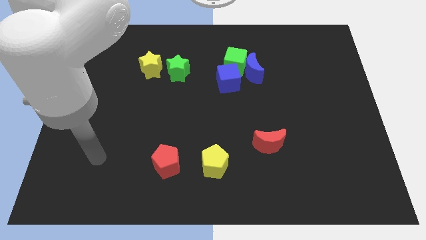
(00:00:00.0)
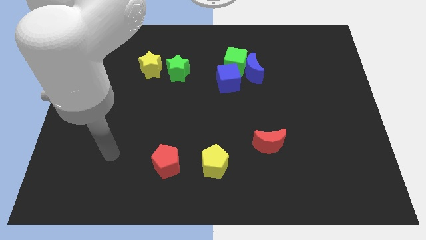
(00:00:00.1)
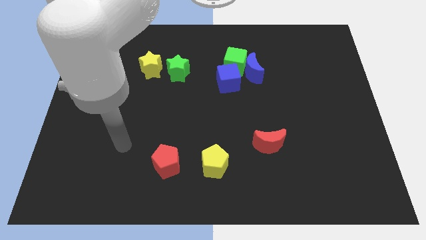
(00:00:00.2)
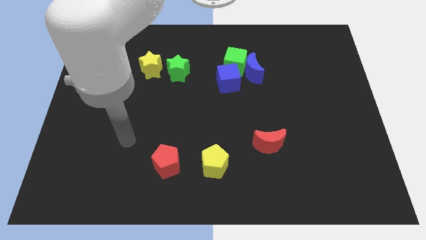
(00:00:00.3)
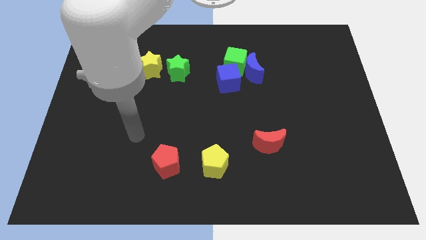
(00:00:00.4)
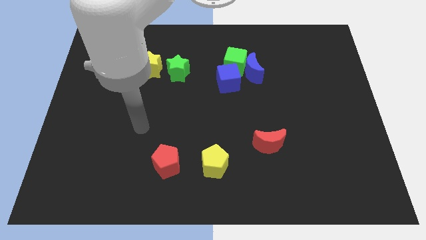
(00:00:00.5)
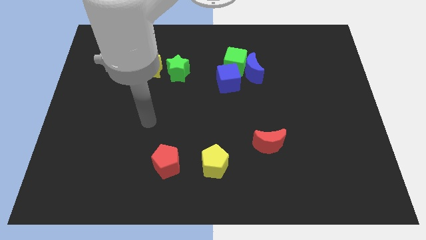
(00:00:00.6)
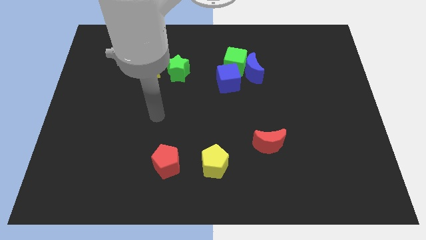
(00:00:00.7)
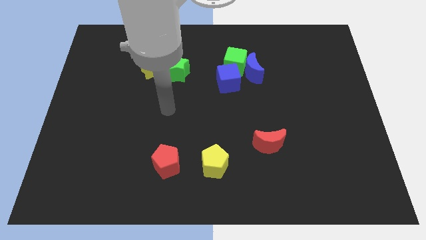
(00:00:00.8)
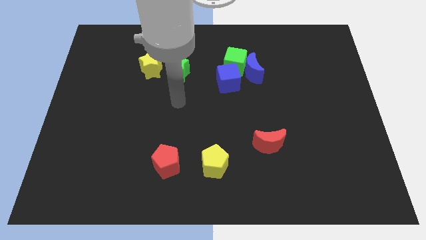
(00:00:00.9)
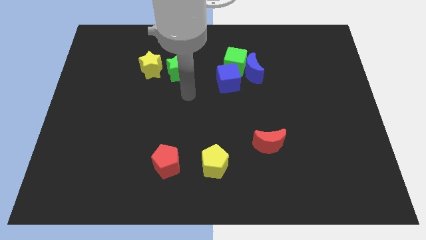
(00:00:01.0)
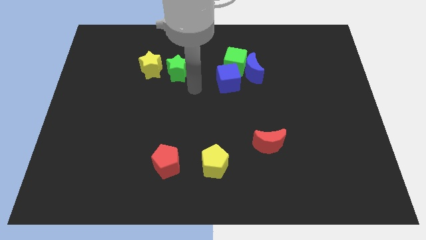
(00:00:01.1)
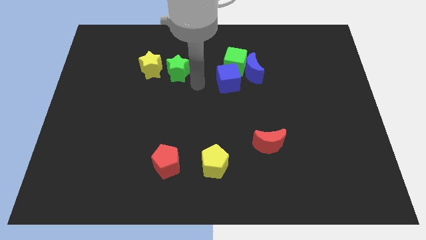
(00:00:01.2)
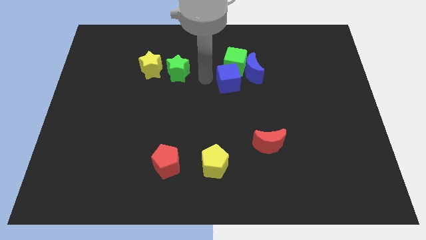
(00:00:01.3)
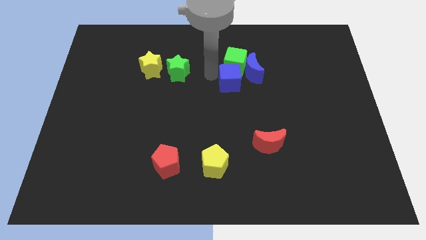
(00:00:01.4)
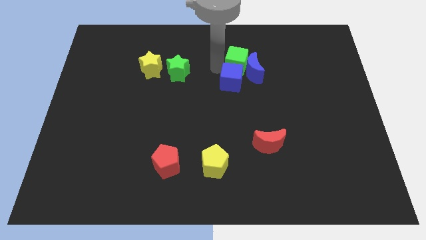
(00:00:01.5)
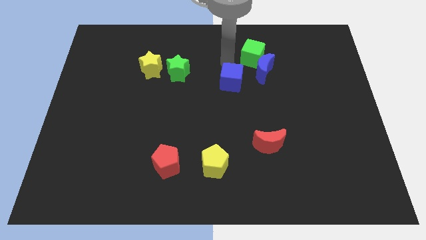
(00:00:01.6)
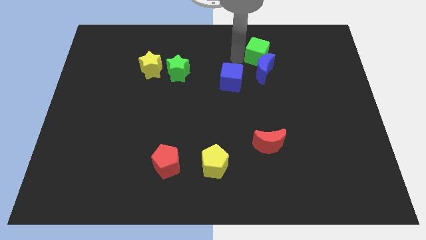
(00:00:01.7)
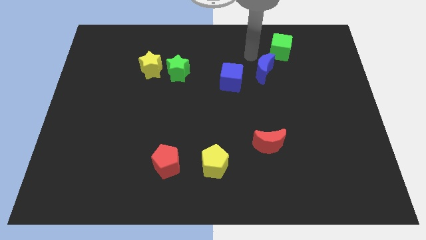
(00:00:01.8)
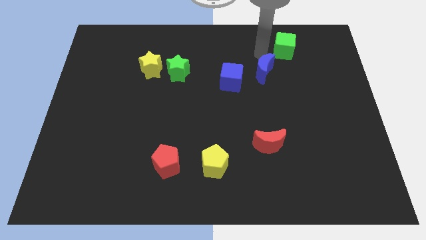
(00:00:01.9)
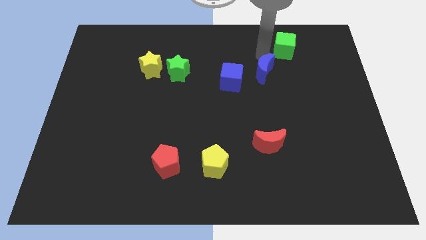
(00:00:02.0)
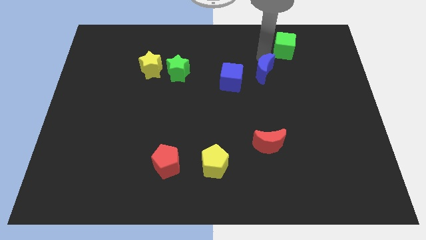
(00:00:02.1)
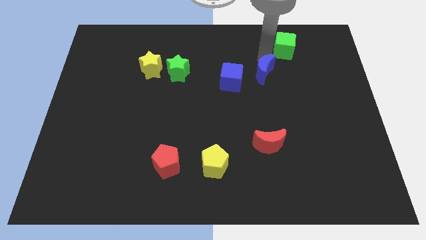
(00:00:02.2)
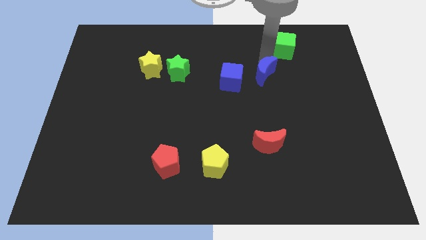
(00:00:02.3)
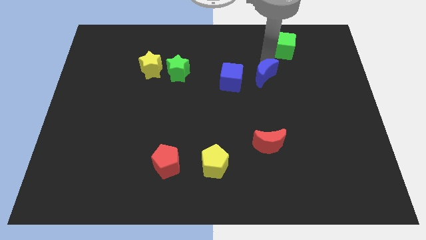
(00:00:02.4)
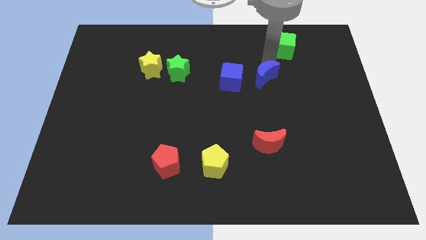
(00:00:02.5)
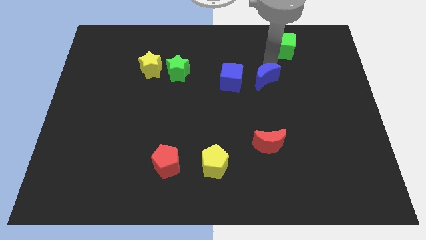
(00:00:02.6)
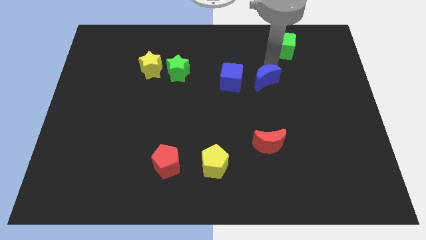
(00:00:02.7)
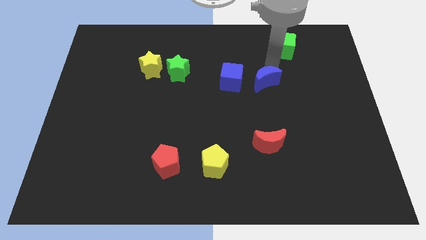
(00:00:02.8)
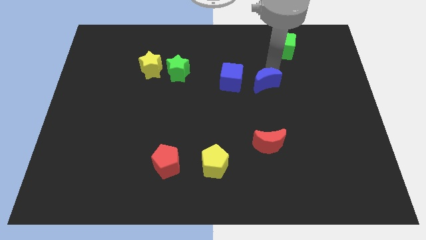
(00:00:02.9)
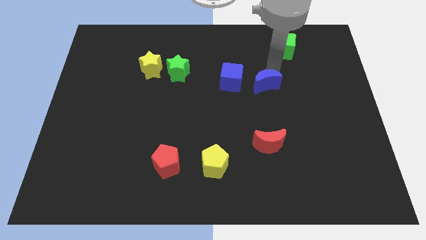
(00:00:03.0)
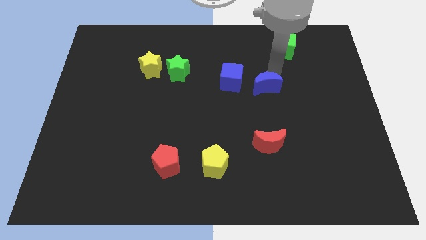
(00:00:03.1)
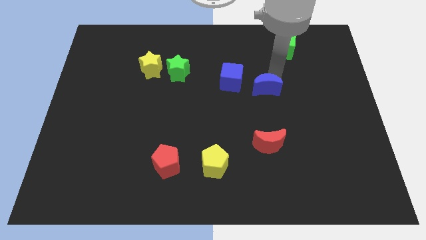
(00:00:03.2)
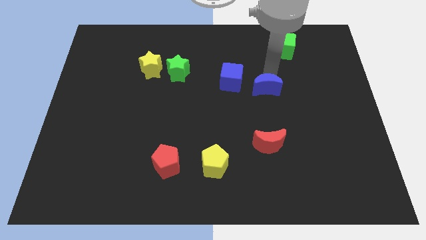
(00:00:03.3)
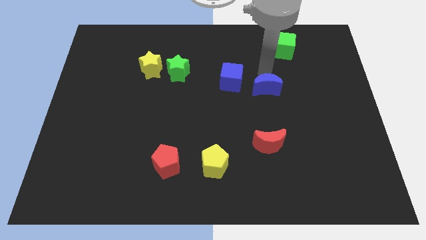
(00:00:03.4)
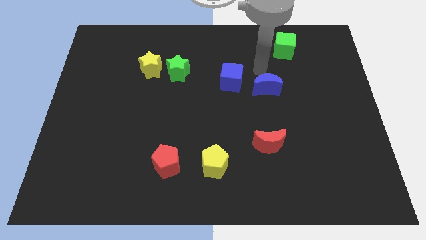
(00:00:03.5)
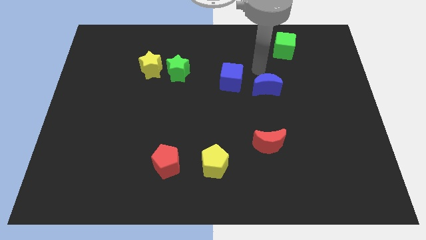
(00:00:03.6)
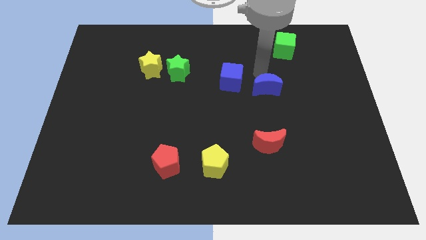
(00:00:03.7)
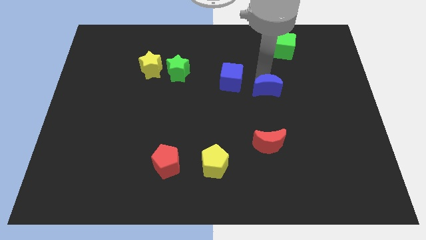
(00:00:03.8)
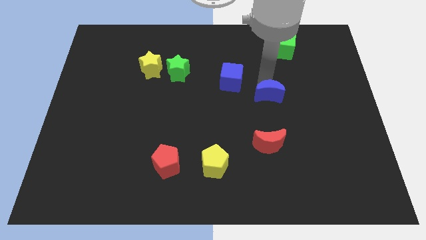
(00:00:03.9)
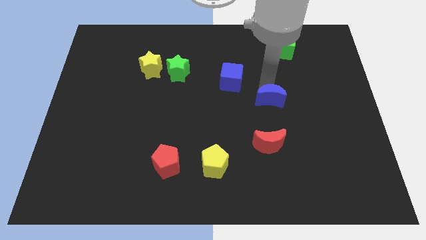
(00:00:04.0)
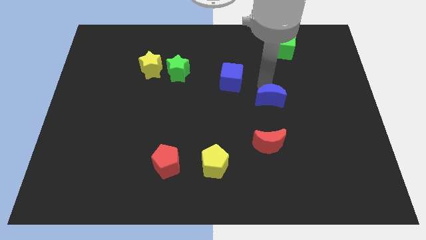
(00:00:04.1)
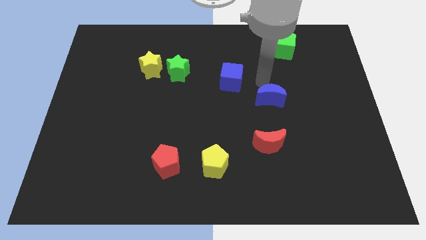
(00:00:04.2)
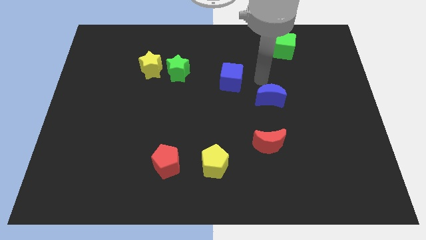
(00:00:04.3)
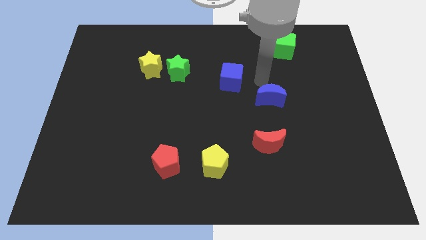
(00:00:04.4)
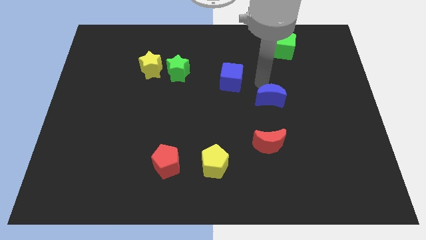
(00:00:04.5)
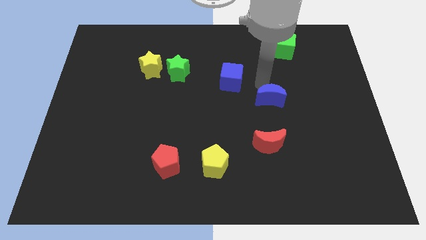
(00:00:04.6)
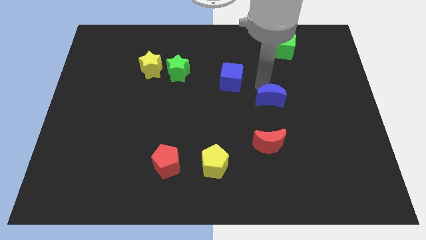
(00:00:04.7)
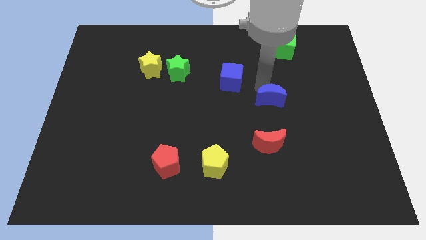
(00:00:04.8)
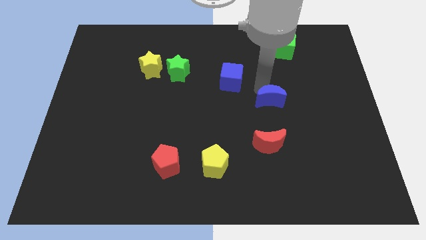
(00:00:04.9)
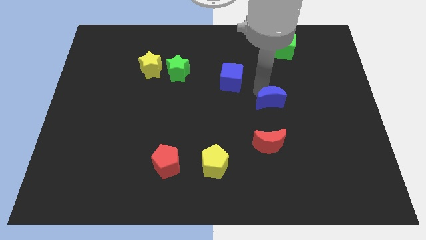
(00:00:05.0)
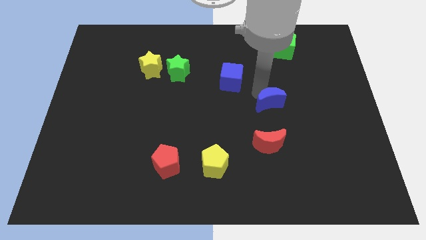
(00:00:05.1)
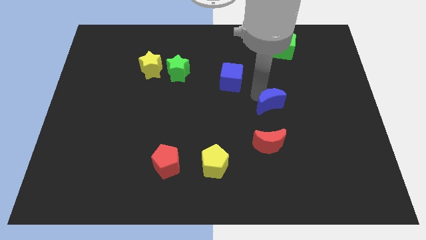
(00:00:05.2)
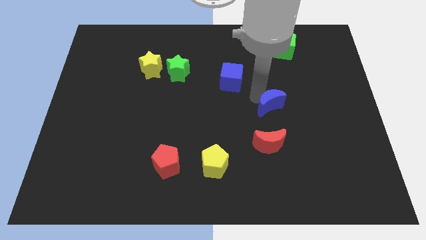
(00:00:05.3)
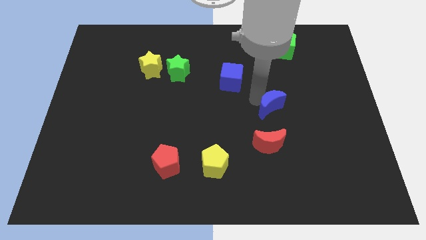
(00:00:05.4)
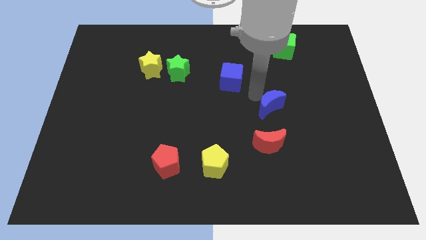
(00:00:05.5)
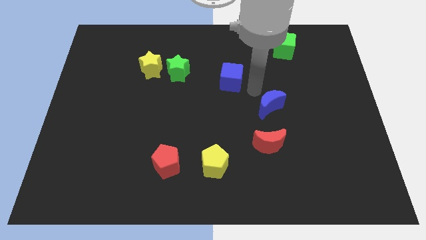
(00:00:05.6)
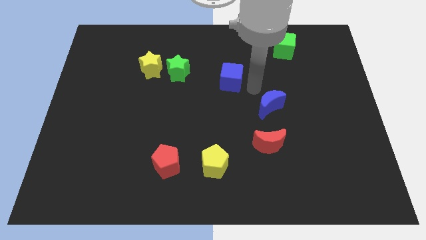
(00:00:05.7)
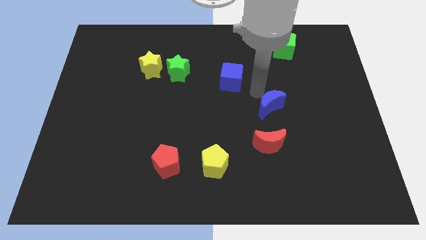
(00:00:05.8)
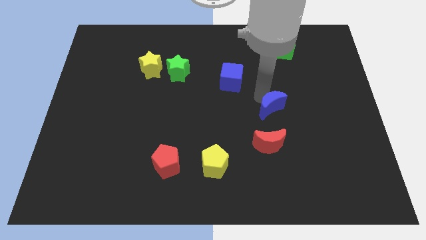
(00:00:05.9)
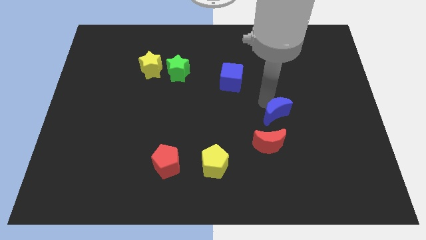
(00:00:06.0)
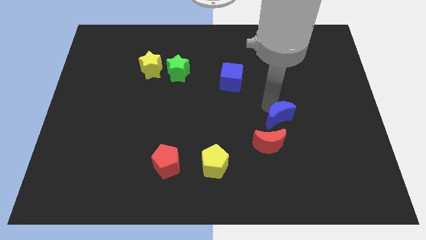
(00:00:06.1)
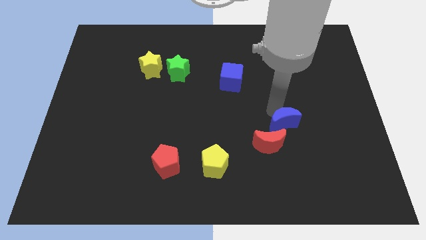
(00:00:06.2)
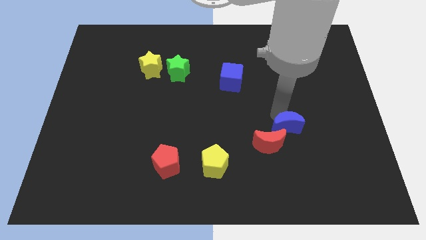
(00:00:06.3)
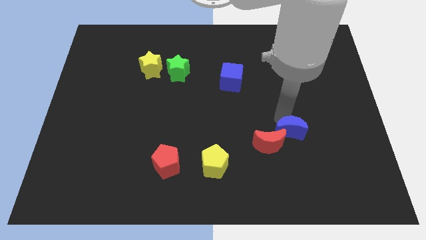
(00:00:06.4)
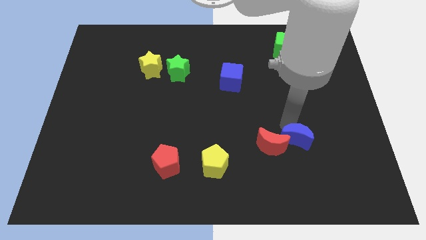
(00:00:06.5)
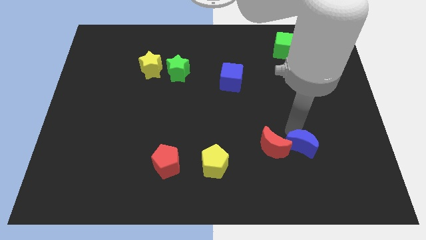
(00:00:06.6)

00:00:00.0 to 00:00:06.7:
move the blue moon to the bottom right side of the red moon
